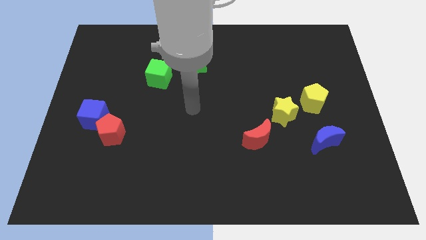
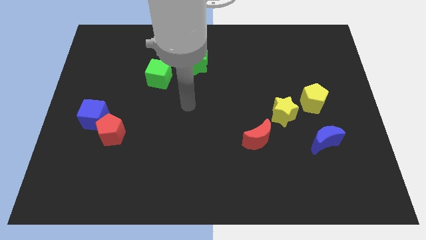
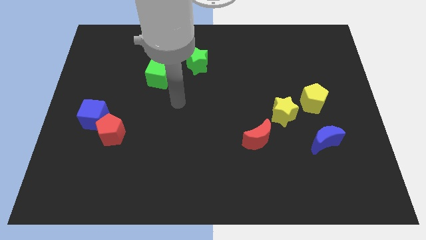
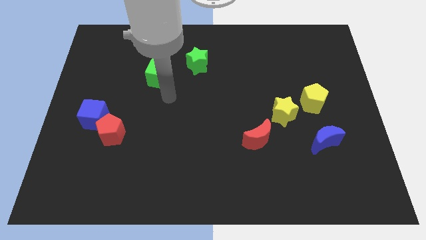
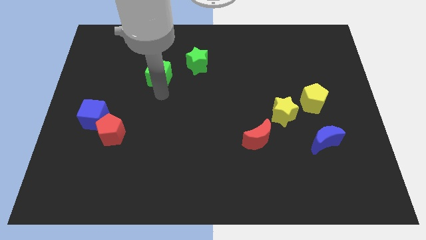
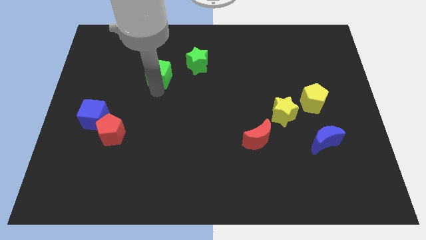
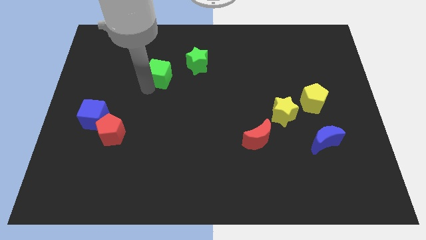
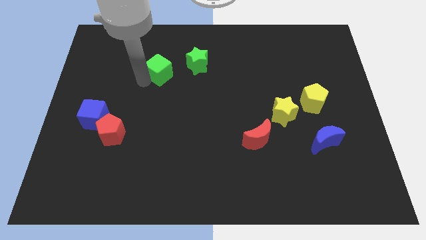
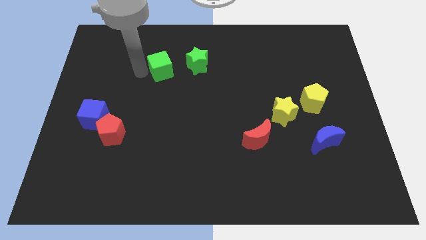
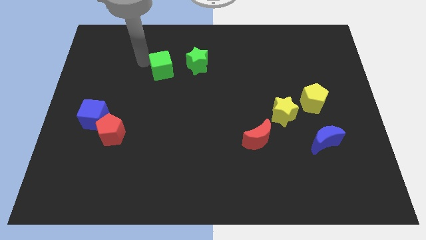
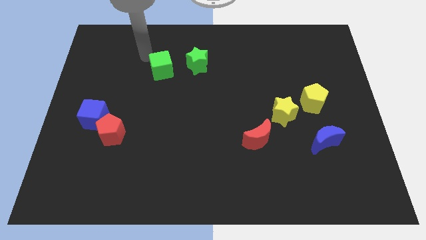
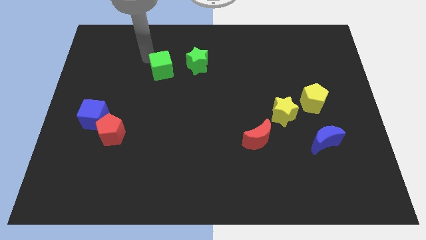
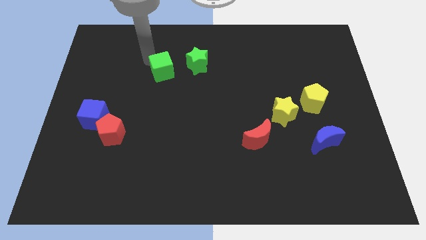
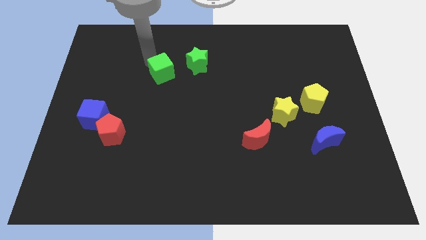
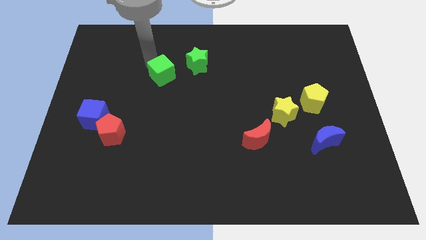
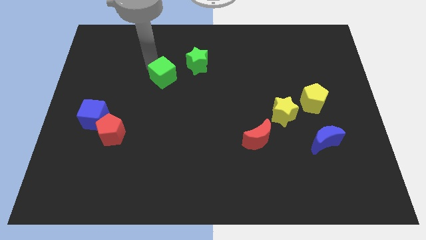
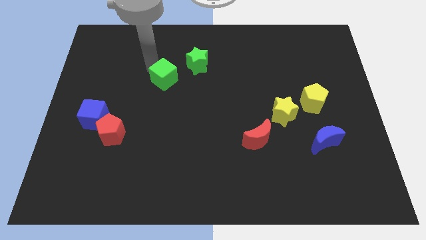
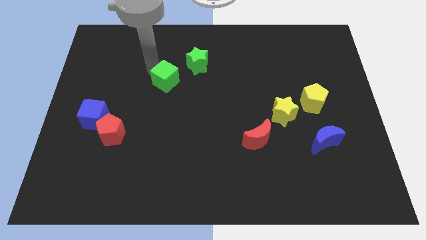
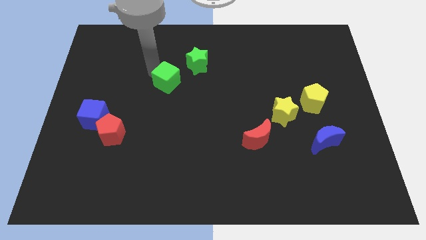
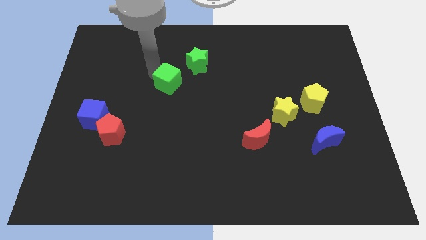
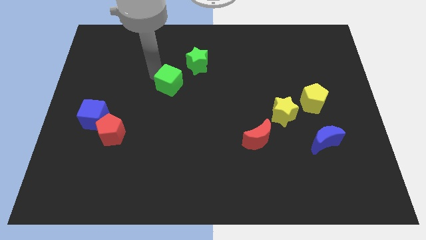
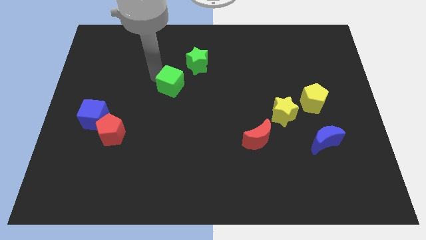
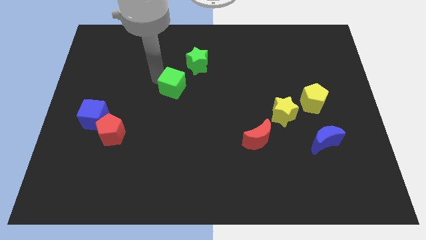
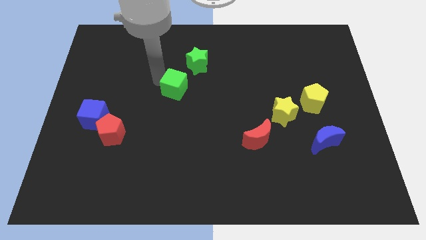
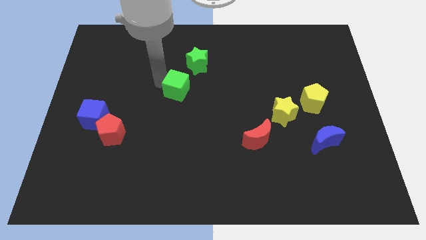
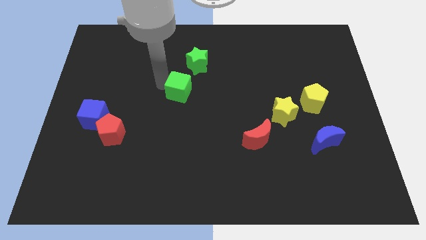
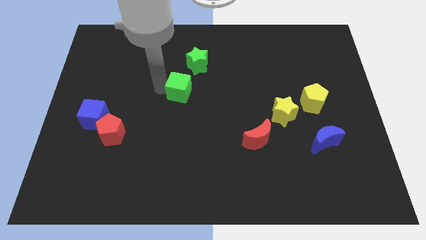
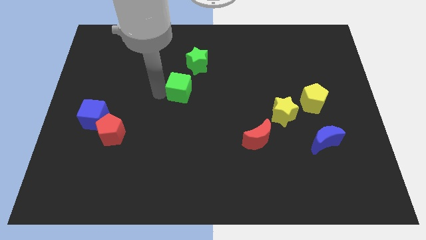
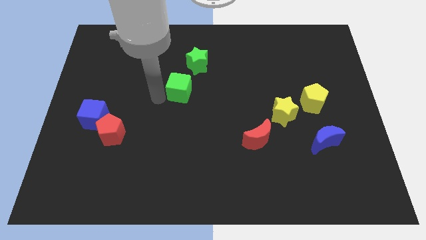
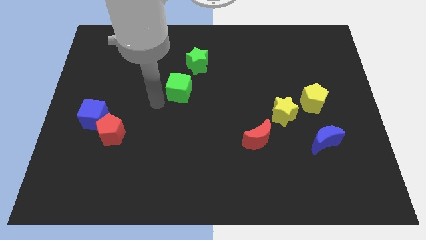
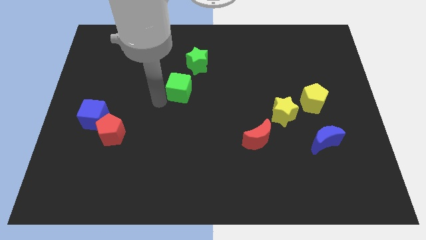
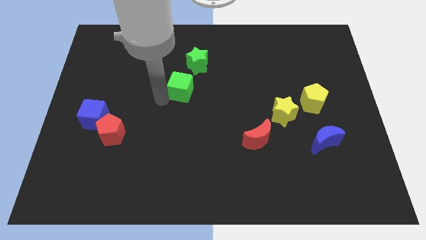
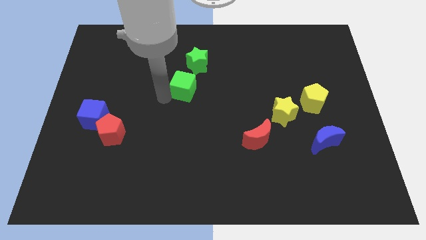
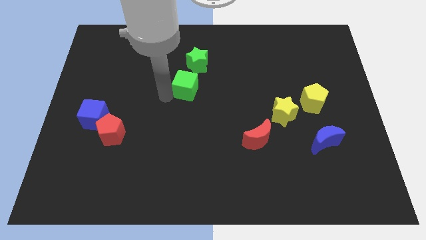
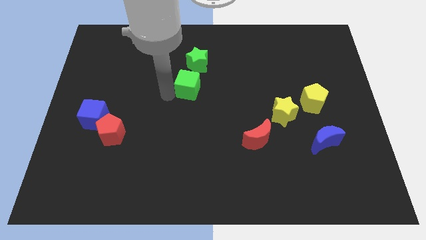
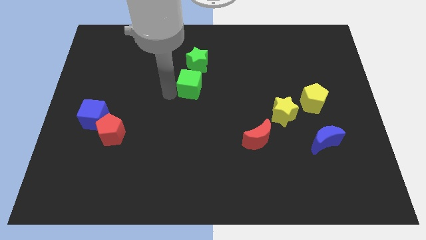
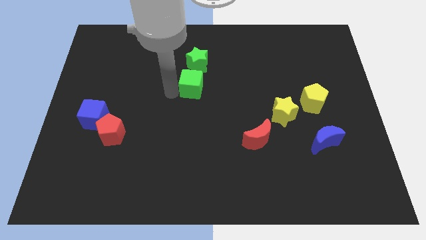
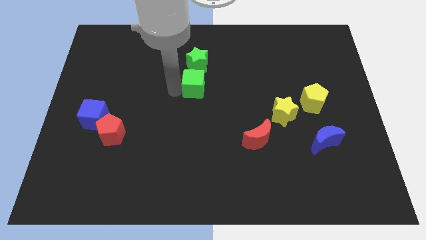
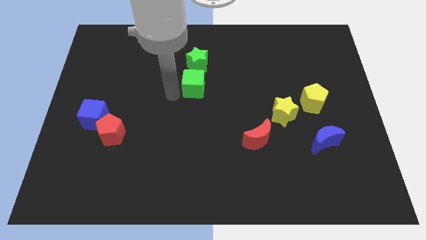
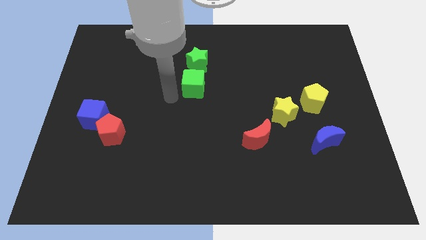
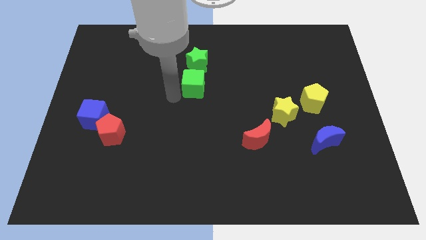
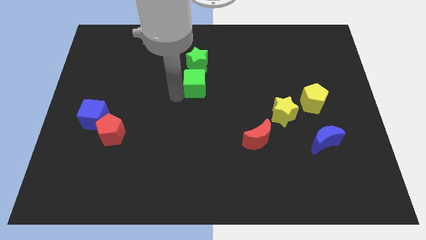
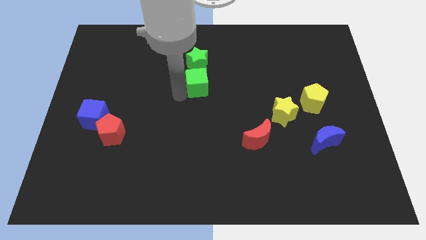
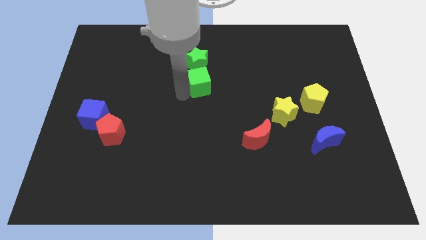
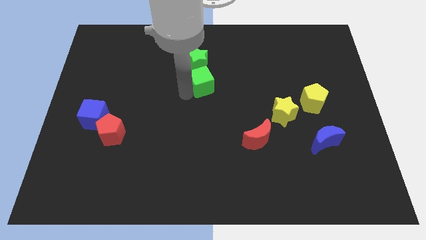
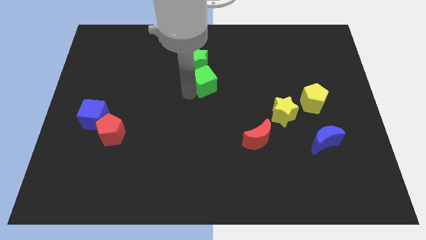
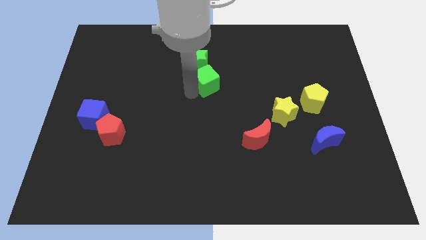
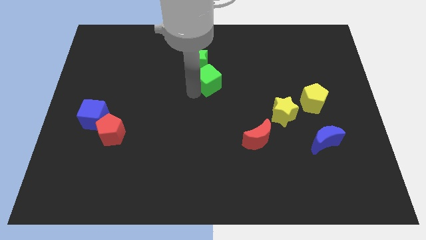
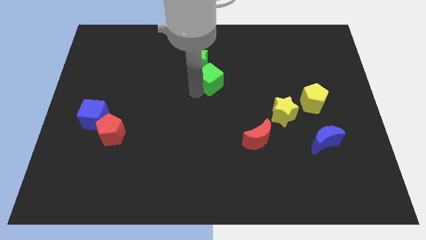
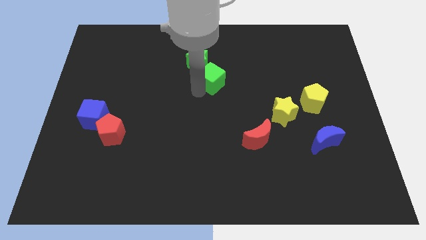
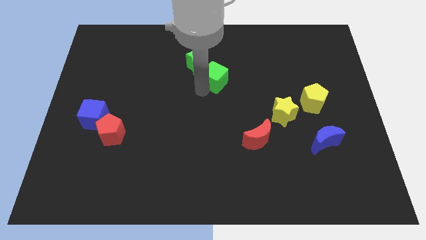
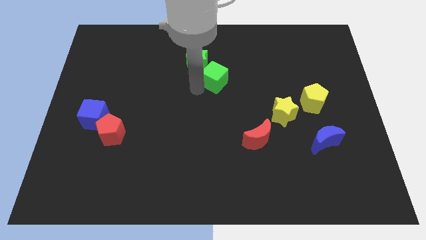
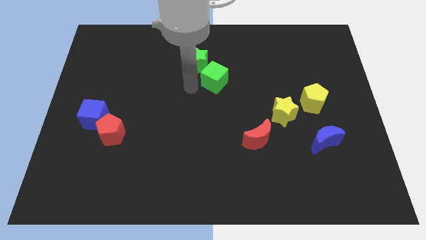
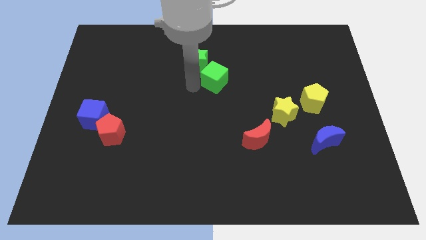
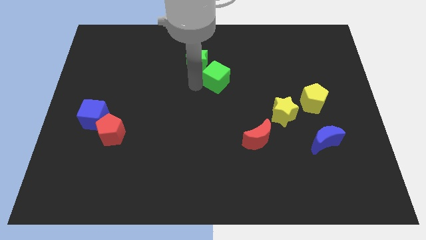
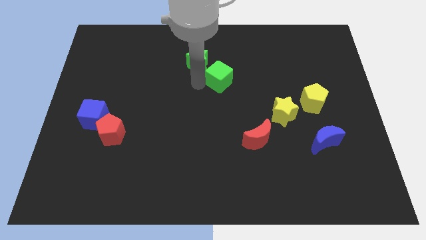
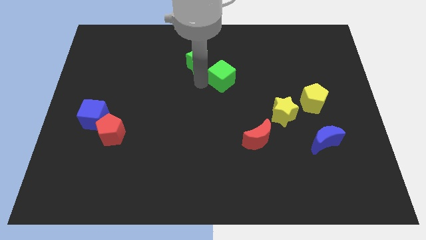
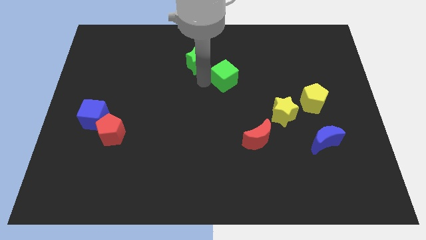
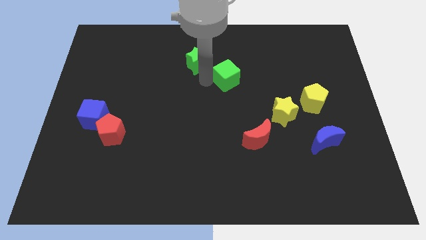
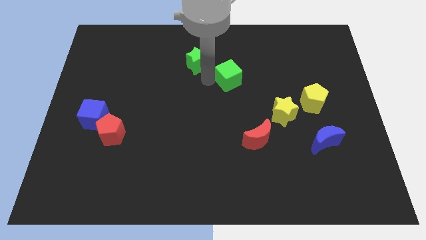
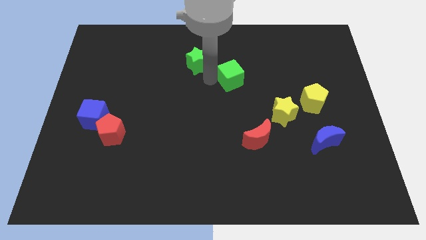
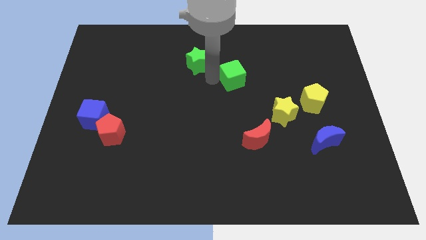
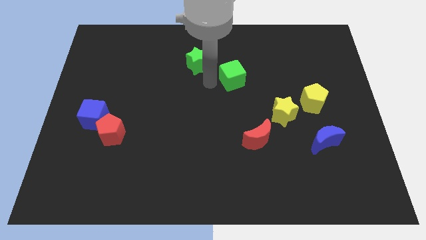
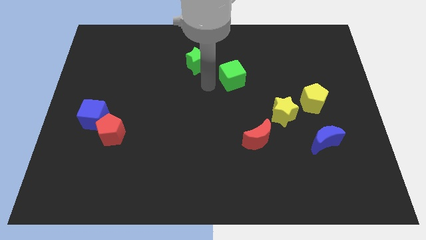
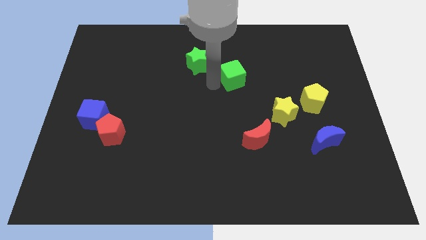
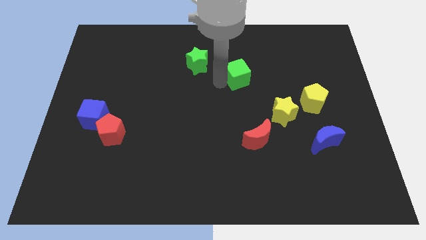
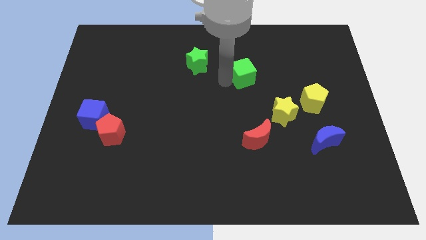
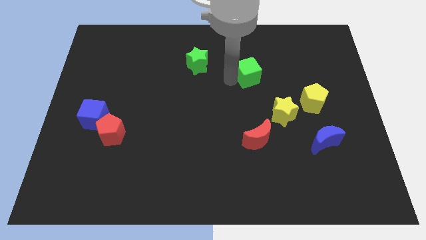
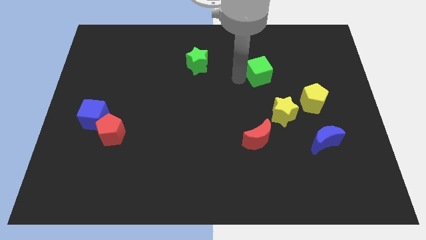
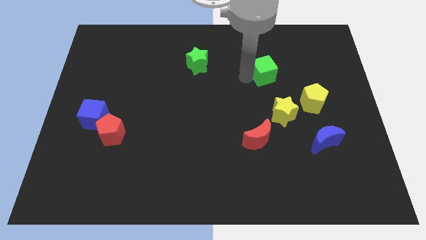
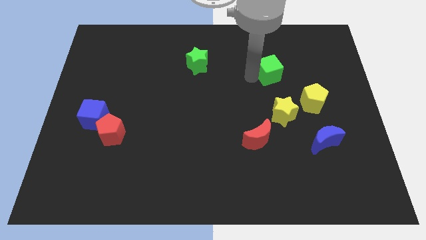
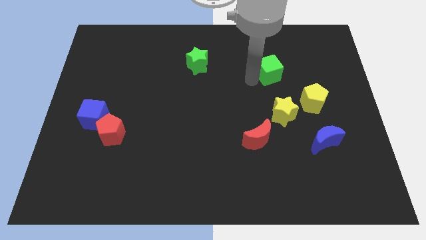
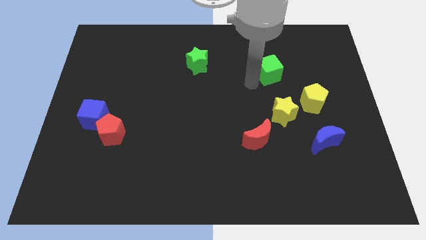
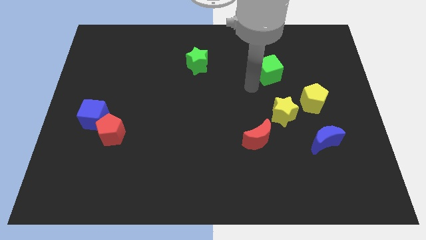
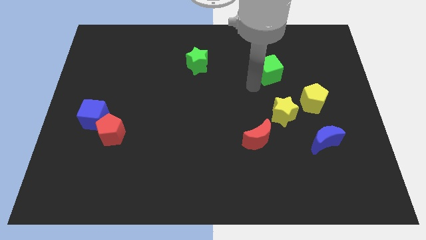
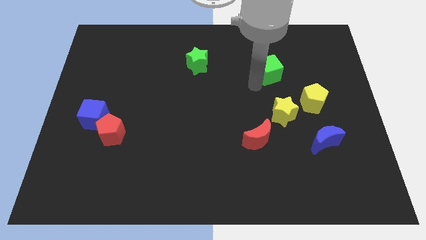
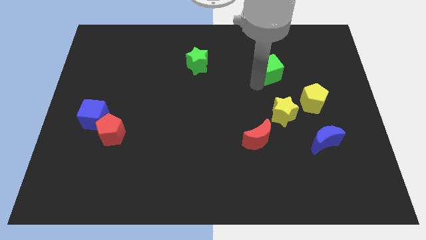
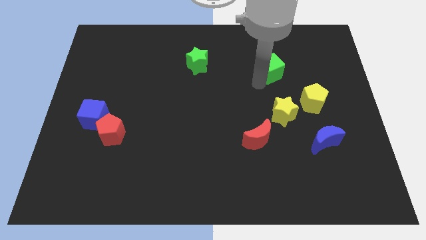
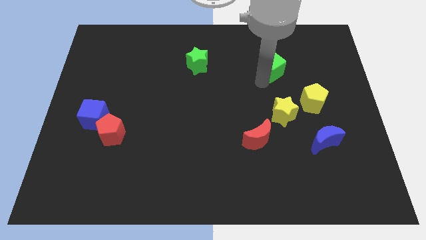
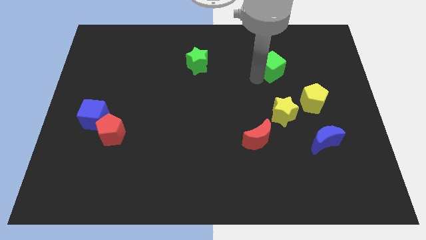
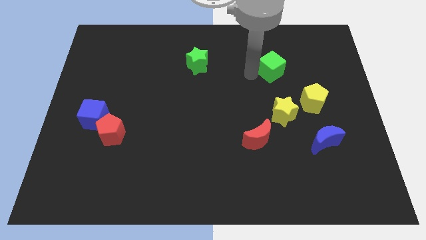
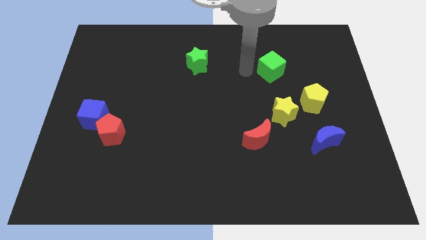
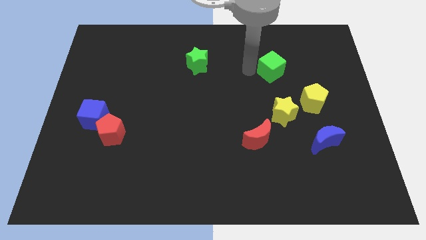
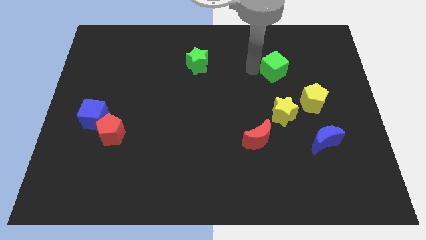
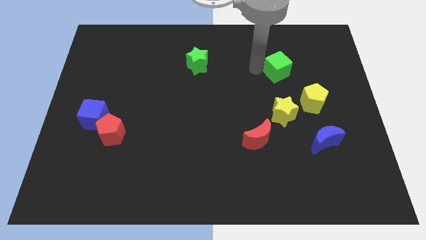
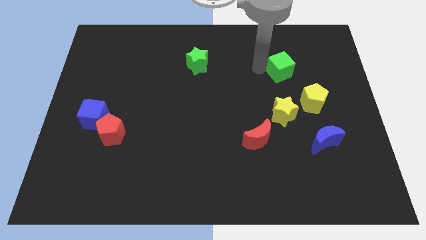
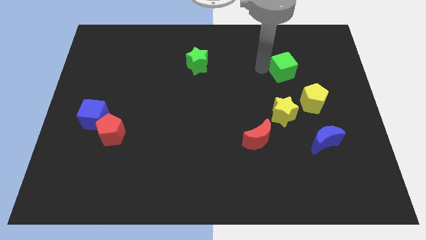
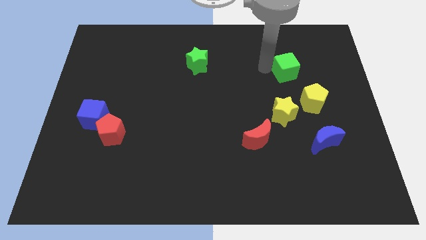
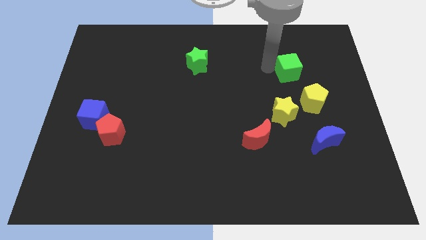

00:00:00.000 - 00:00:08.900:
slide the green cube above the yellow pentagon
